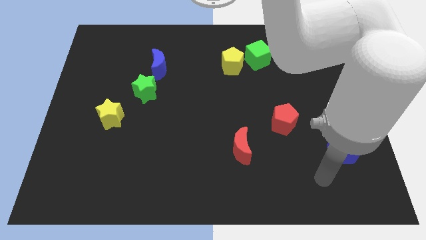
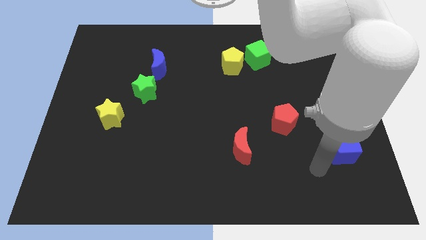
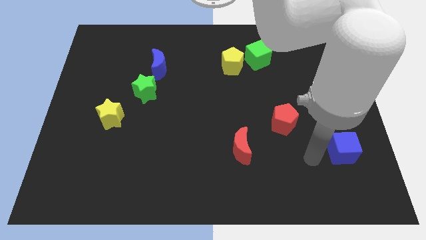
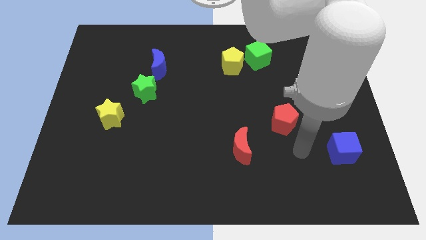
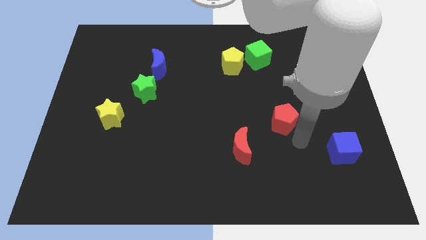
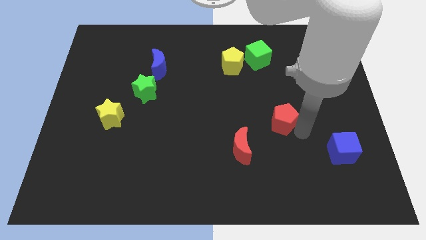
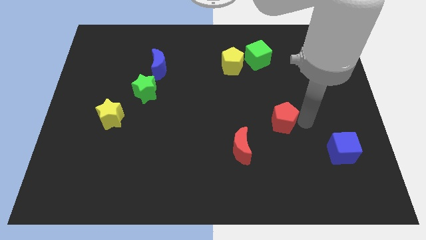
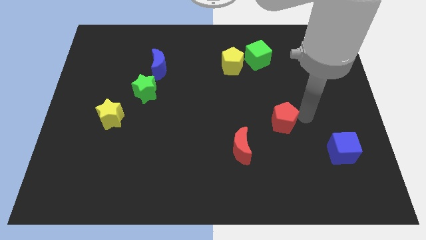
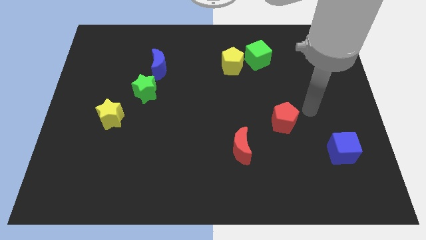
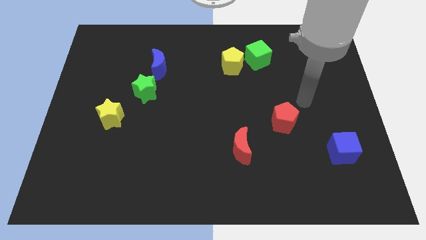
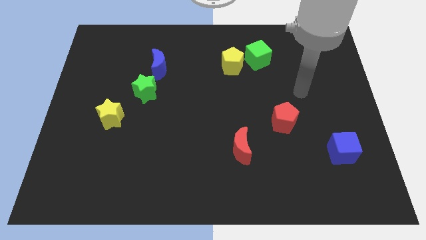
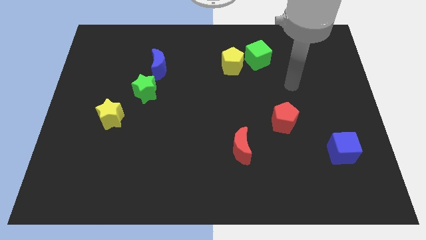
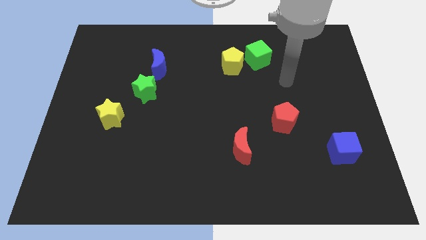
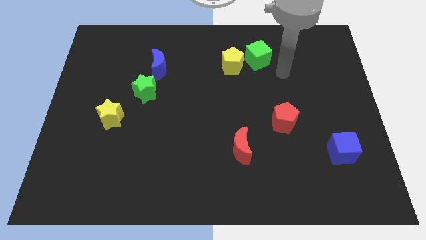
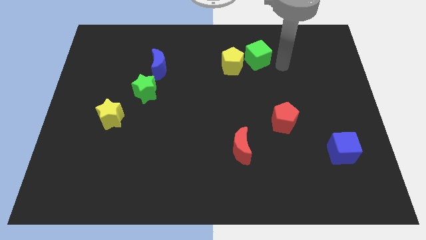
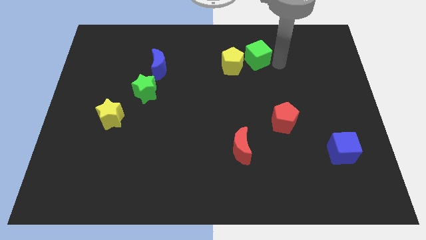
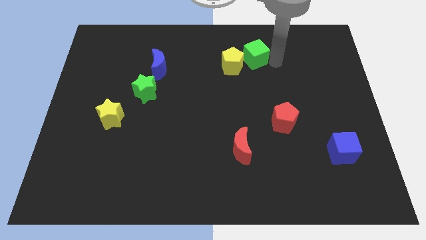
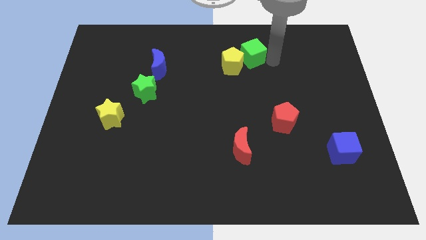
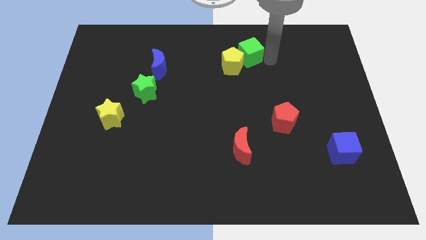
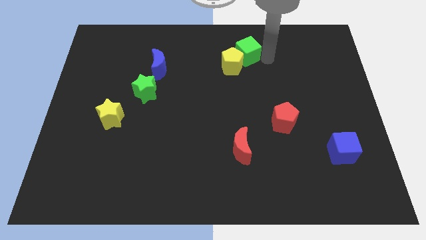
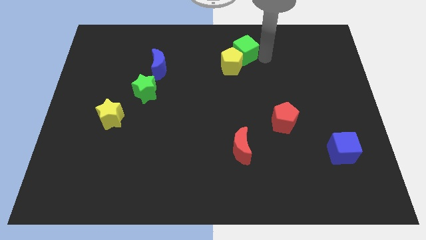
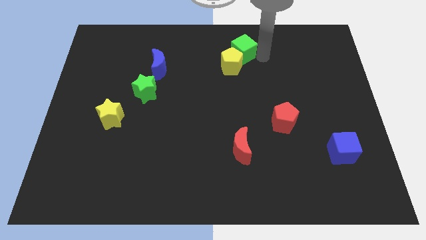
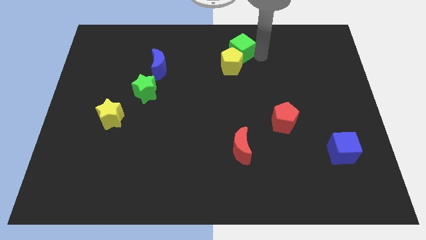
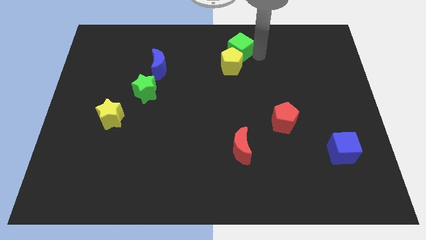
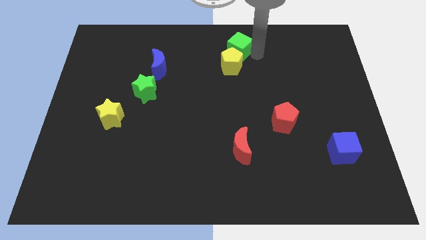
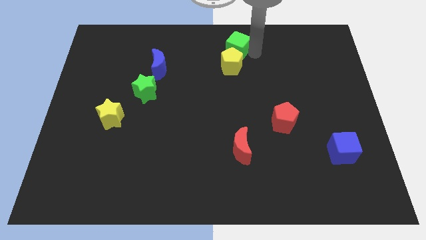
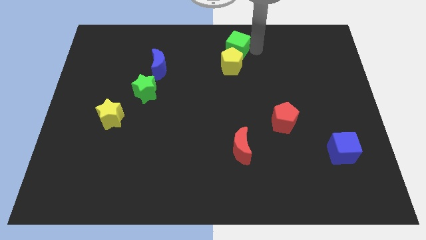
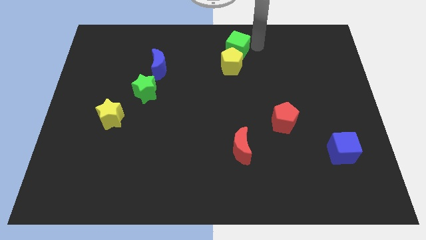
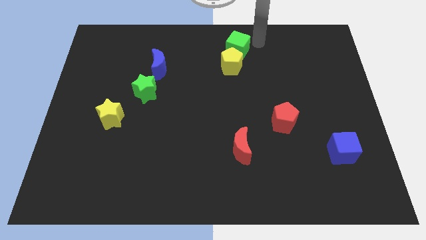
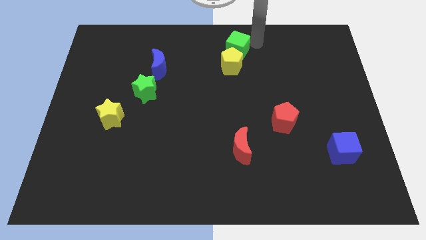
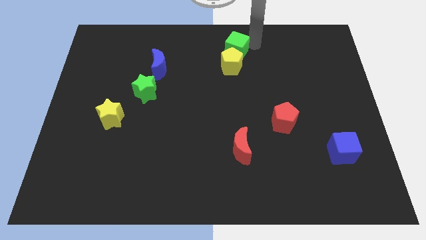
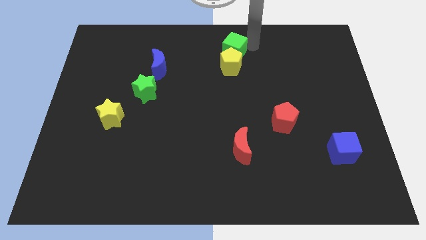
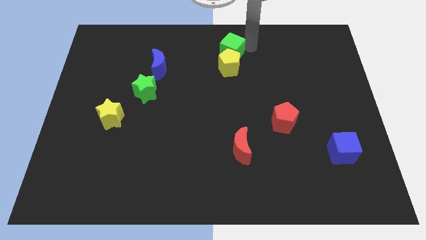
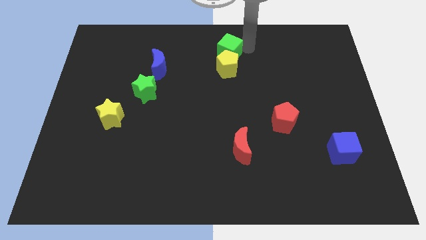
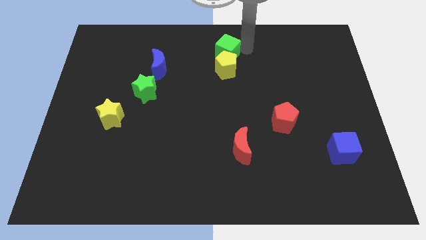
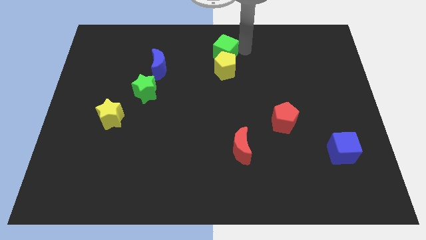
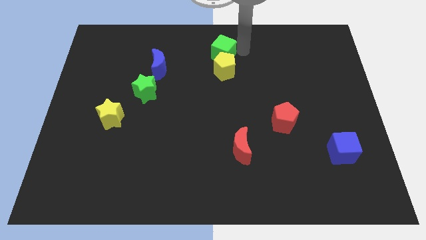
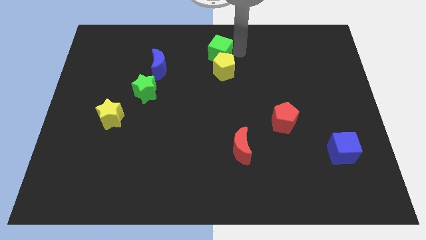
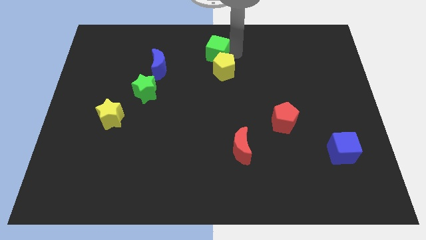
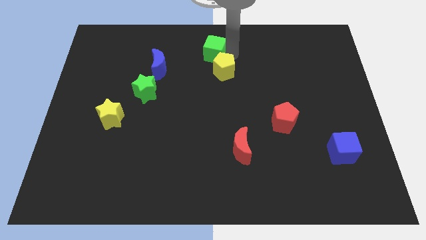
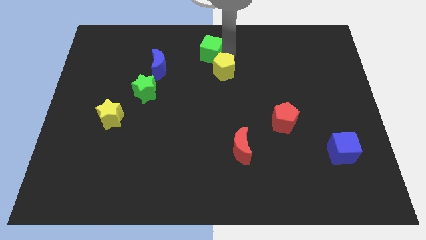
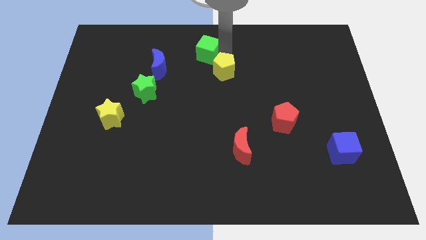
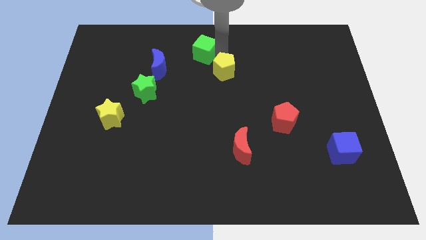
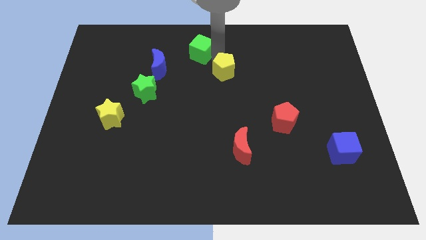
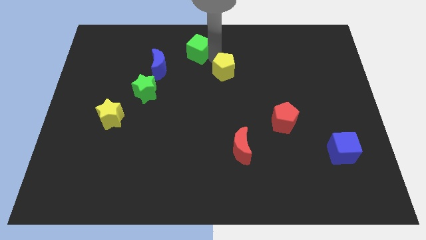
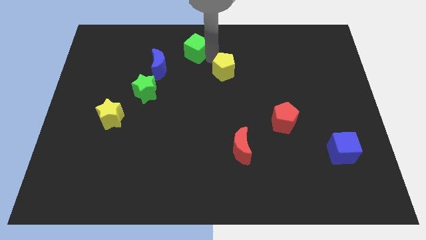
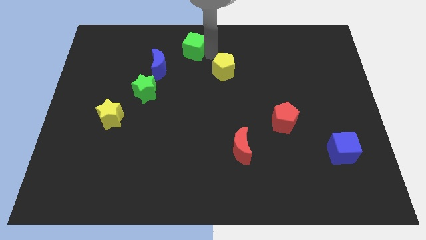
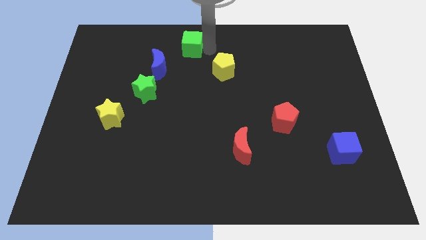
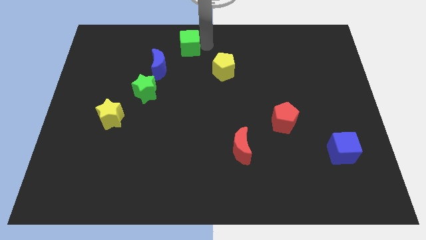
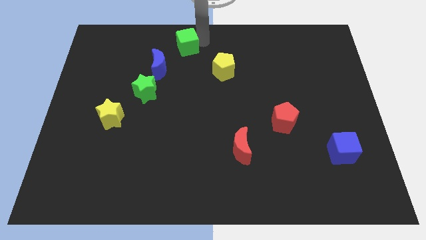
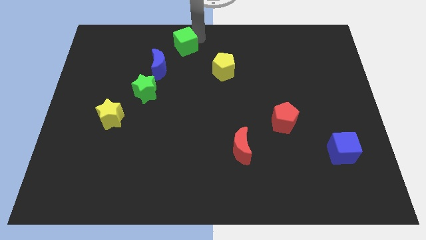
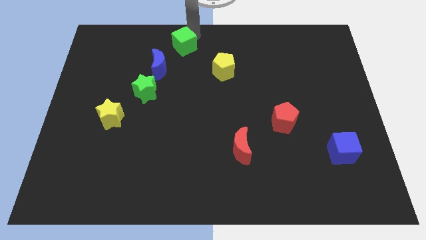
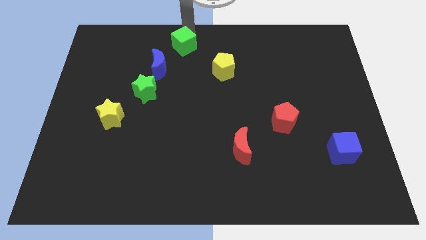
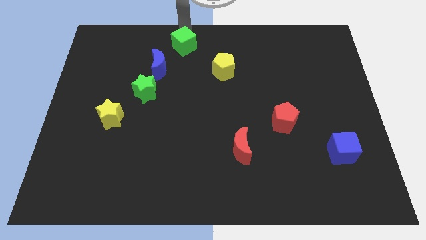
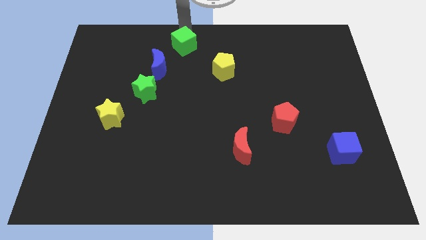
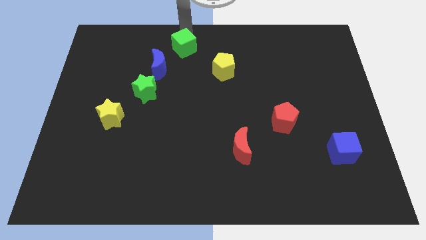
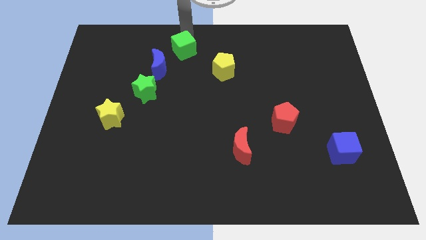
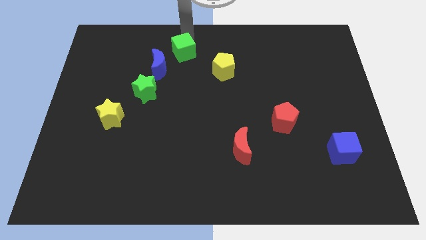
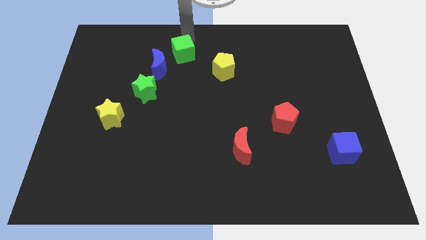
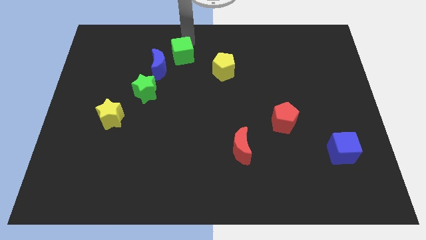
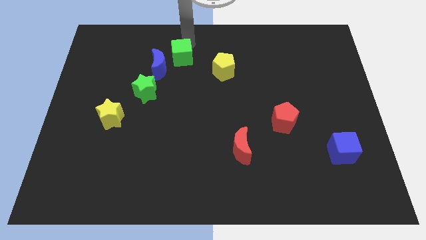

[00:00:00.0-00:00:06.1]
move the green cube to the left of the yellow pentagon
